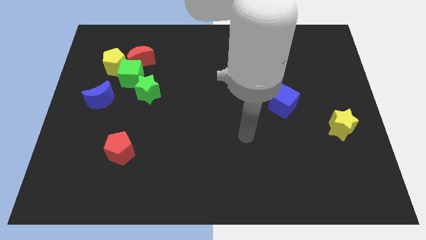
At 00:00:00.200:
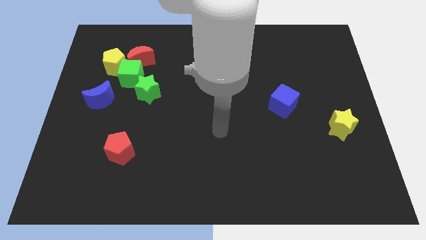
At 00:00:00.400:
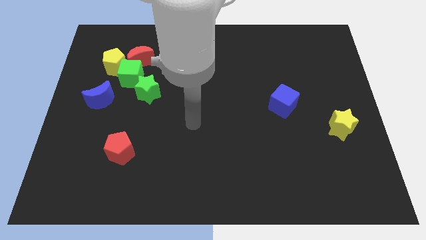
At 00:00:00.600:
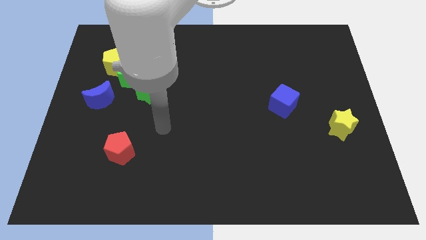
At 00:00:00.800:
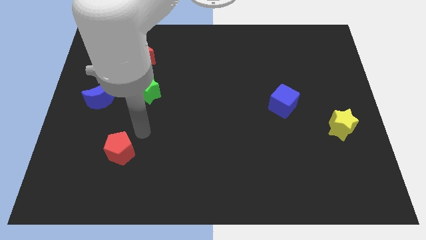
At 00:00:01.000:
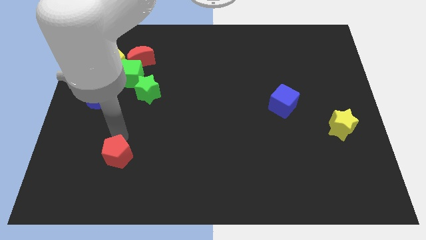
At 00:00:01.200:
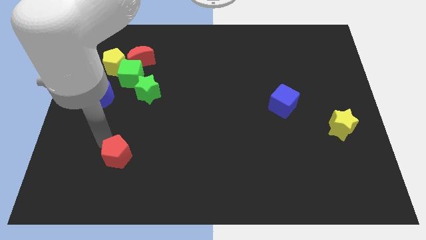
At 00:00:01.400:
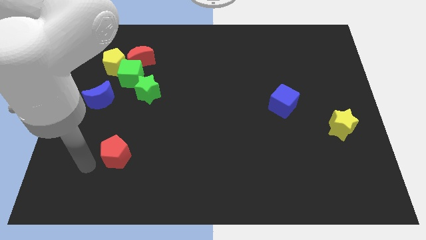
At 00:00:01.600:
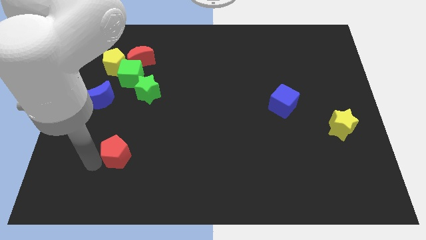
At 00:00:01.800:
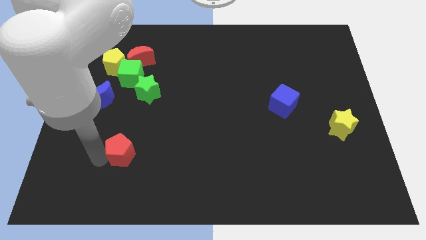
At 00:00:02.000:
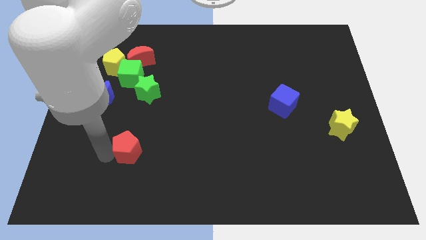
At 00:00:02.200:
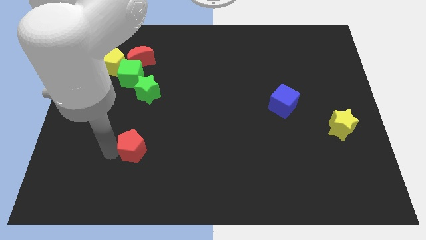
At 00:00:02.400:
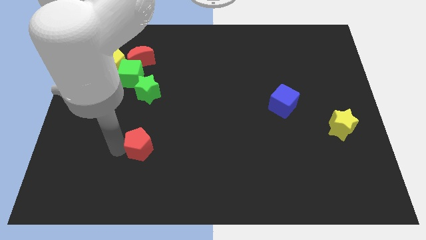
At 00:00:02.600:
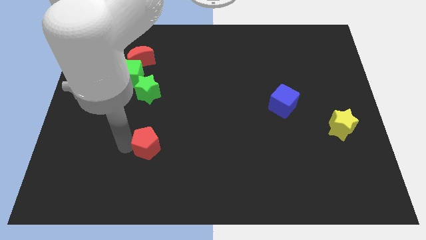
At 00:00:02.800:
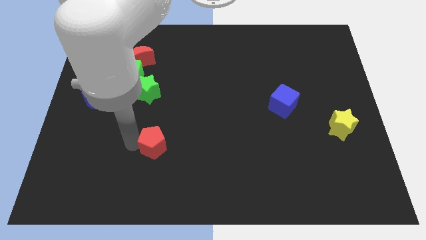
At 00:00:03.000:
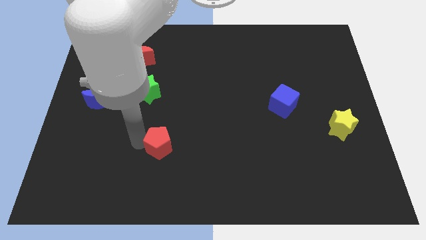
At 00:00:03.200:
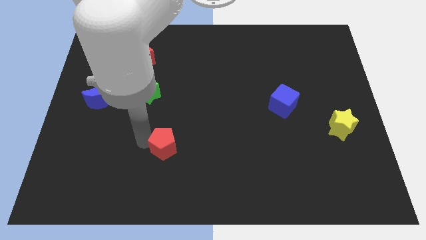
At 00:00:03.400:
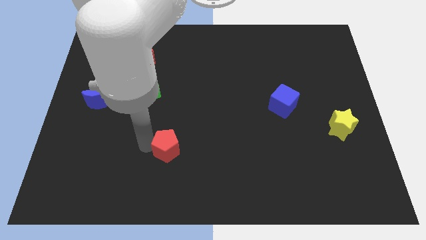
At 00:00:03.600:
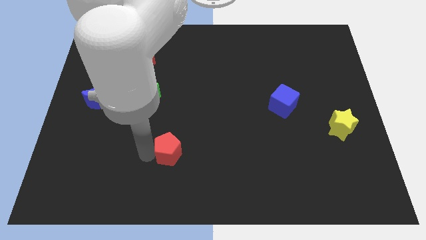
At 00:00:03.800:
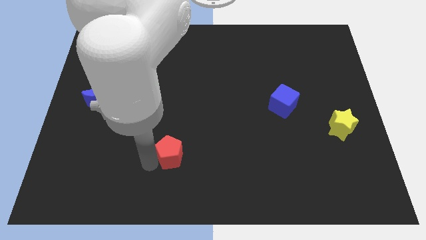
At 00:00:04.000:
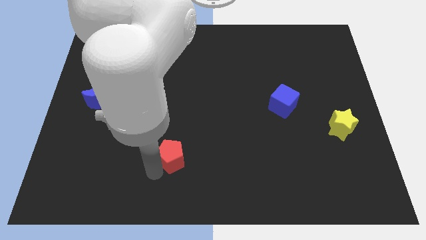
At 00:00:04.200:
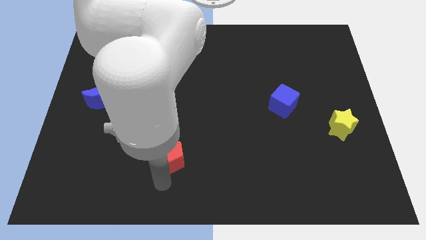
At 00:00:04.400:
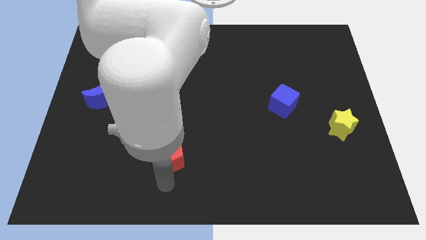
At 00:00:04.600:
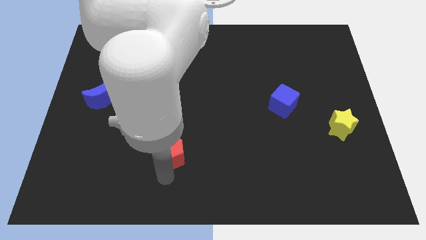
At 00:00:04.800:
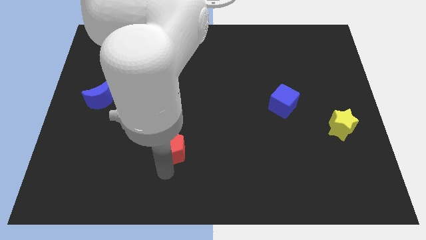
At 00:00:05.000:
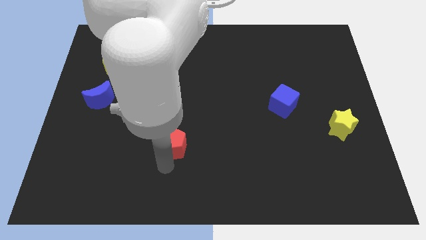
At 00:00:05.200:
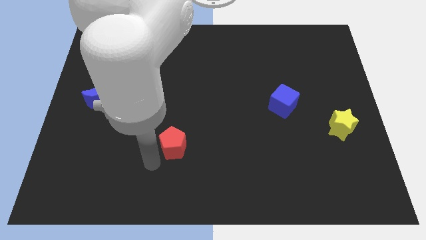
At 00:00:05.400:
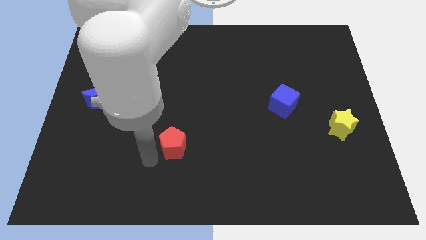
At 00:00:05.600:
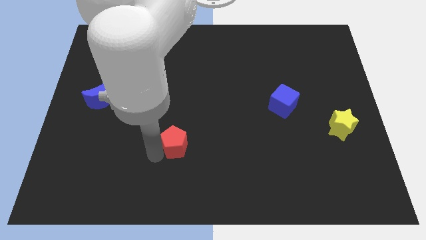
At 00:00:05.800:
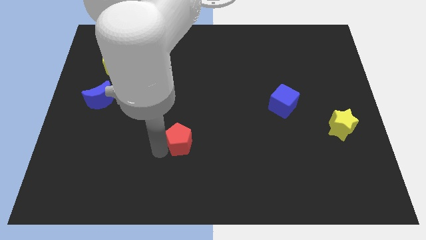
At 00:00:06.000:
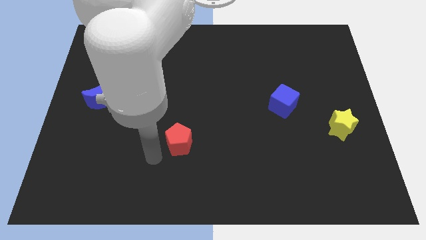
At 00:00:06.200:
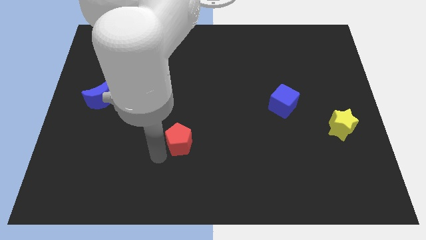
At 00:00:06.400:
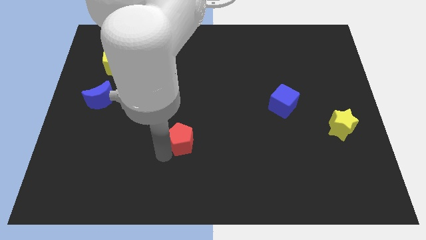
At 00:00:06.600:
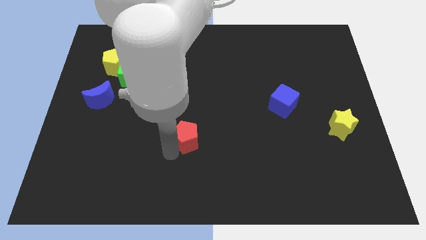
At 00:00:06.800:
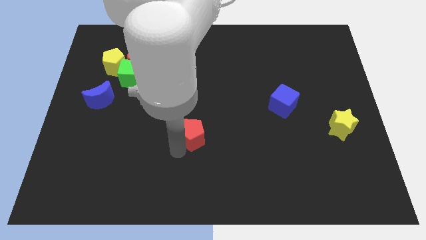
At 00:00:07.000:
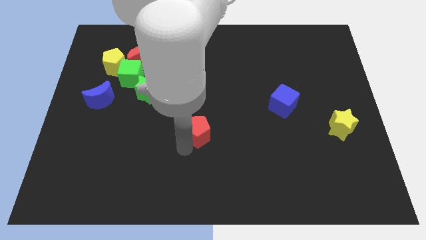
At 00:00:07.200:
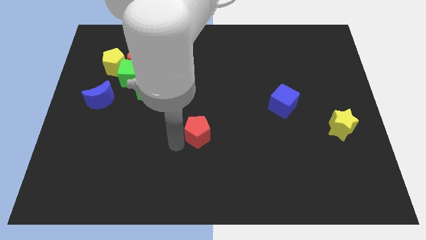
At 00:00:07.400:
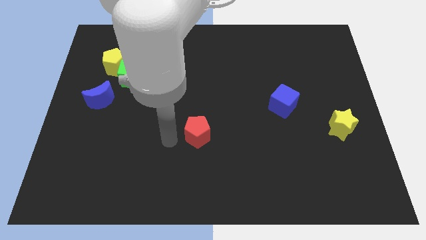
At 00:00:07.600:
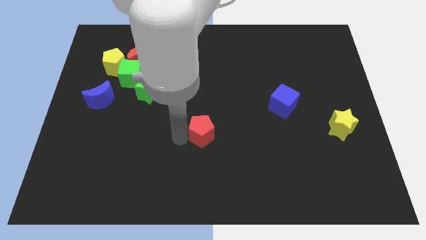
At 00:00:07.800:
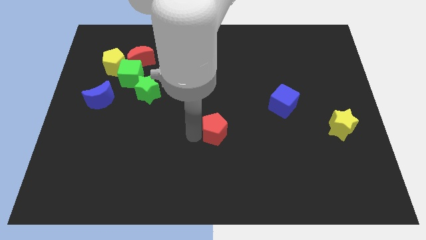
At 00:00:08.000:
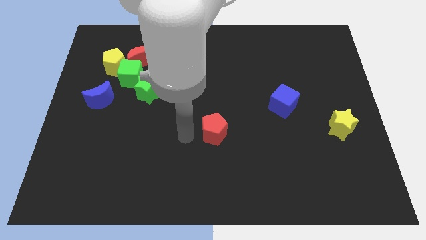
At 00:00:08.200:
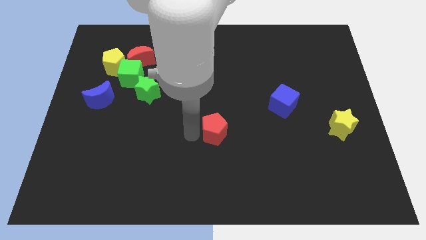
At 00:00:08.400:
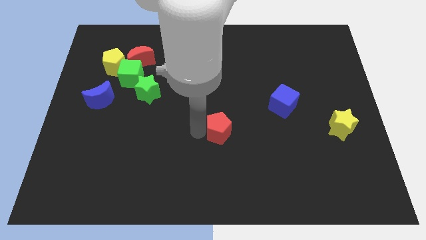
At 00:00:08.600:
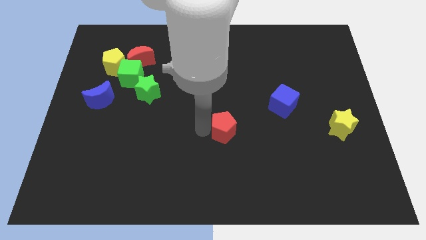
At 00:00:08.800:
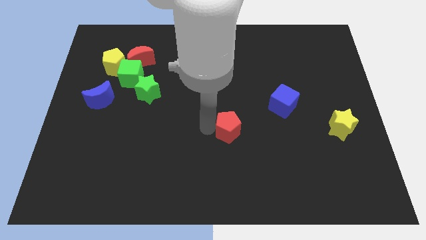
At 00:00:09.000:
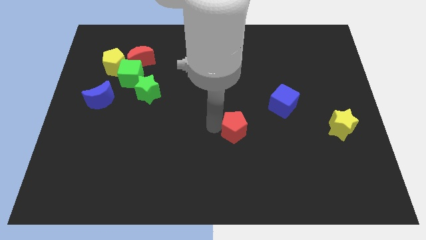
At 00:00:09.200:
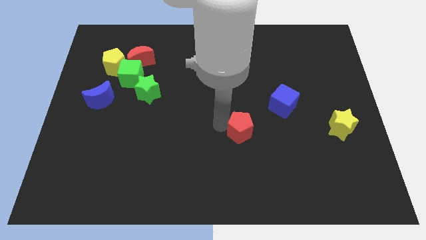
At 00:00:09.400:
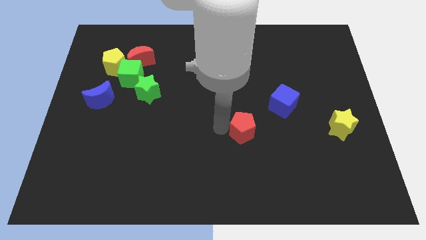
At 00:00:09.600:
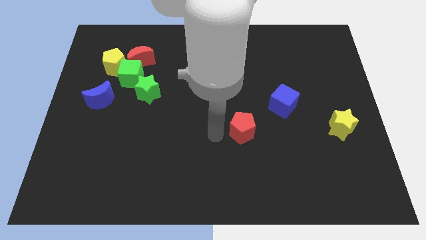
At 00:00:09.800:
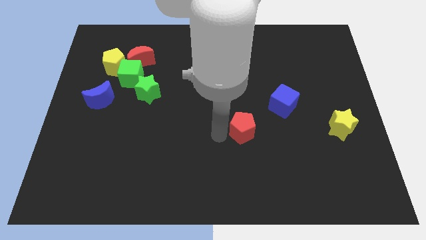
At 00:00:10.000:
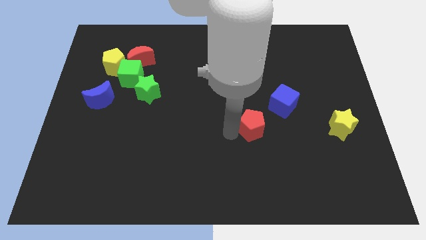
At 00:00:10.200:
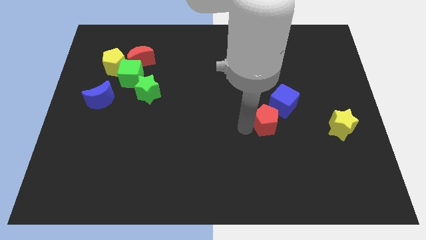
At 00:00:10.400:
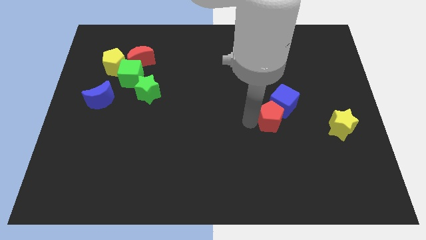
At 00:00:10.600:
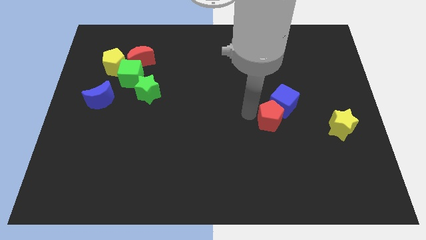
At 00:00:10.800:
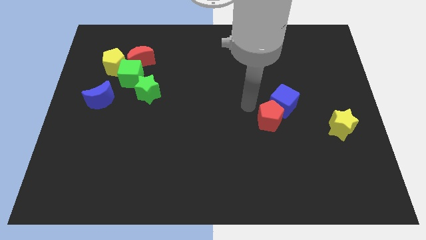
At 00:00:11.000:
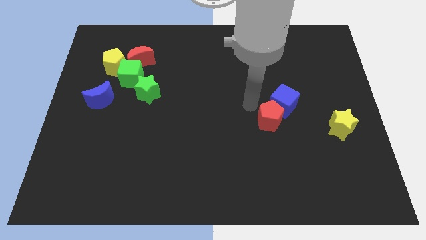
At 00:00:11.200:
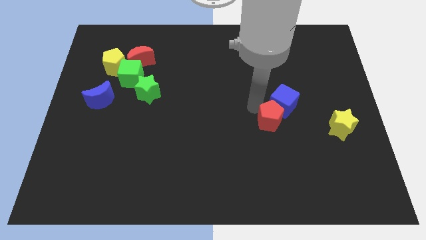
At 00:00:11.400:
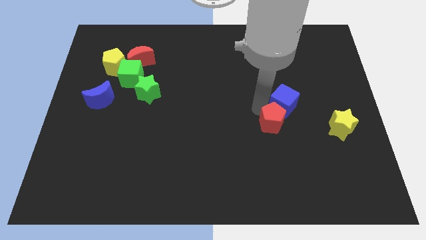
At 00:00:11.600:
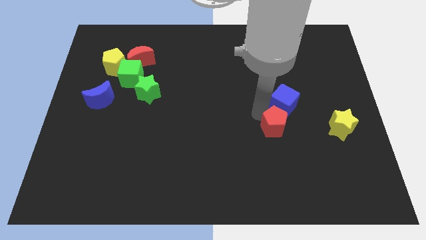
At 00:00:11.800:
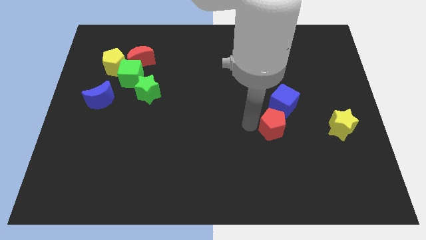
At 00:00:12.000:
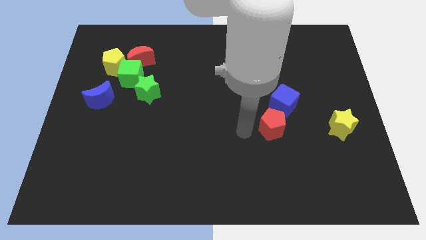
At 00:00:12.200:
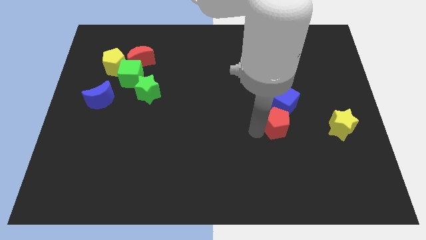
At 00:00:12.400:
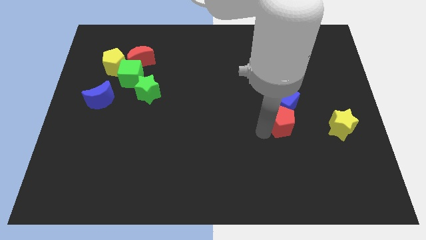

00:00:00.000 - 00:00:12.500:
put the red pentagon diagonally down and to the right of the blue cube
